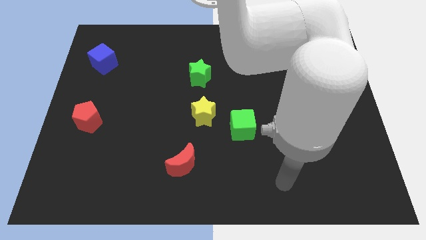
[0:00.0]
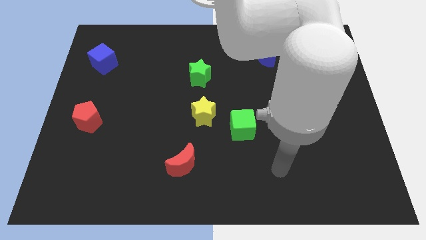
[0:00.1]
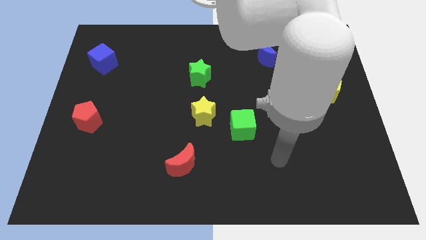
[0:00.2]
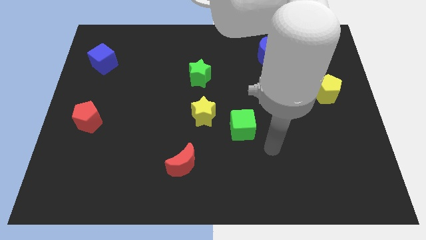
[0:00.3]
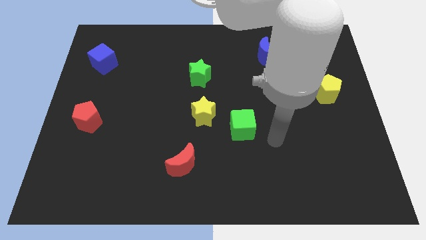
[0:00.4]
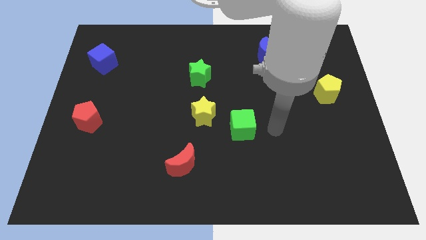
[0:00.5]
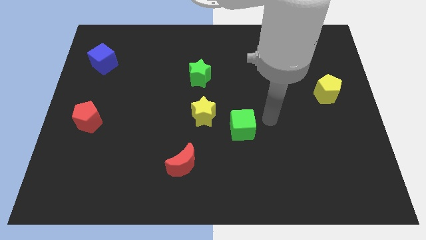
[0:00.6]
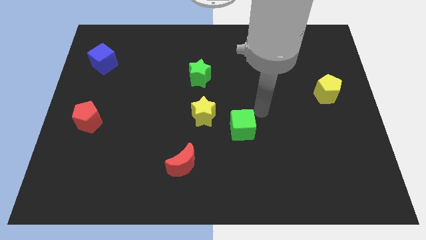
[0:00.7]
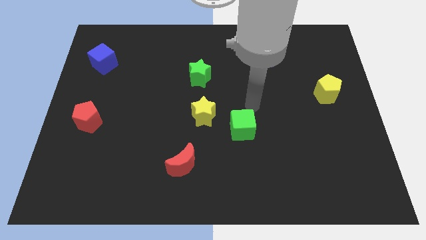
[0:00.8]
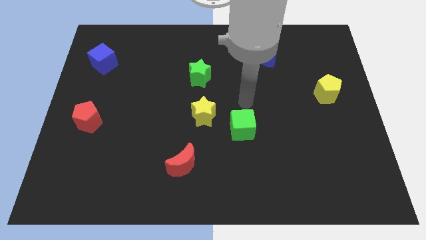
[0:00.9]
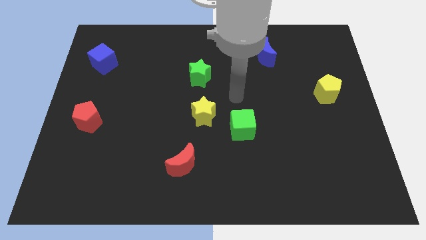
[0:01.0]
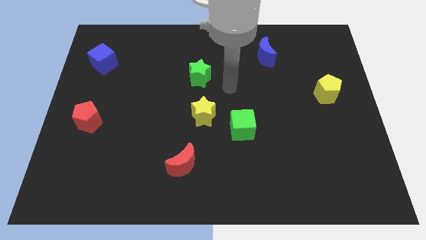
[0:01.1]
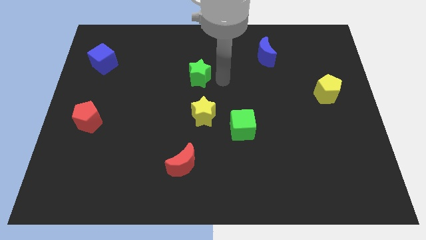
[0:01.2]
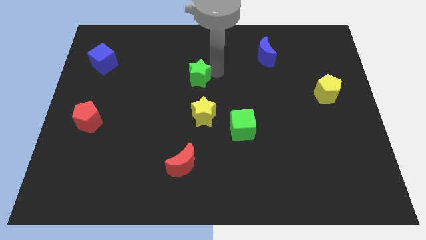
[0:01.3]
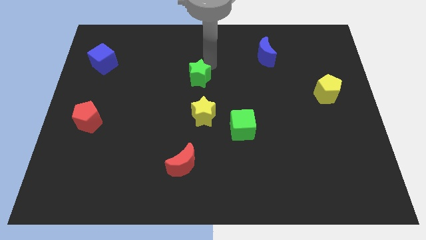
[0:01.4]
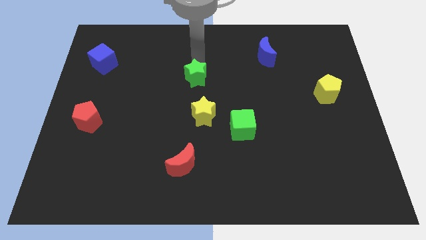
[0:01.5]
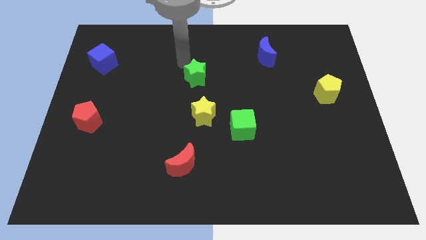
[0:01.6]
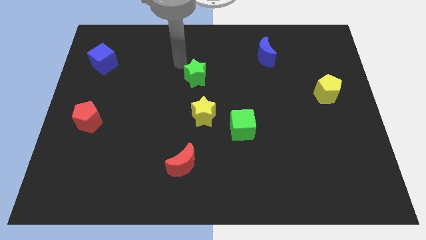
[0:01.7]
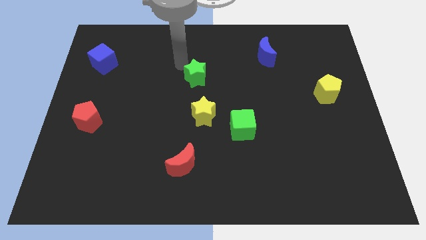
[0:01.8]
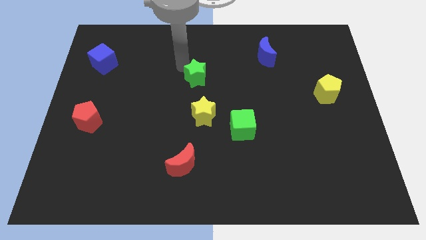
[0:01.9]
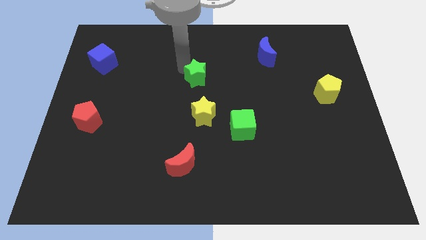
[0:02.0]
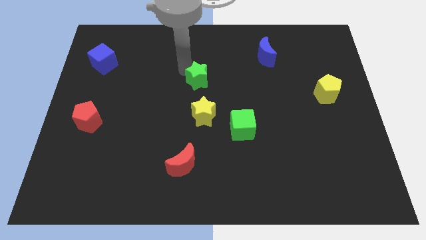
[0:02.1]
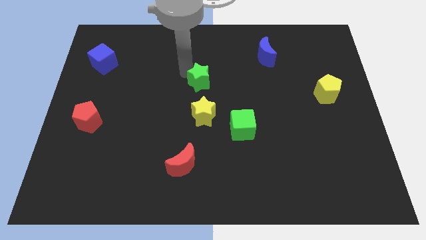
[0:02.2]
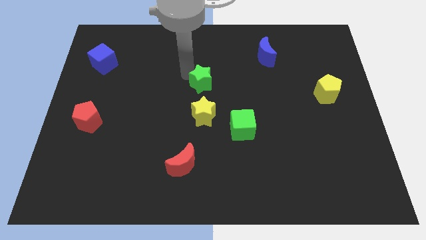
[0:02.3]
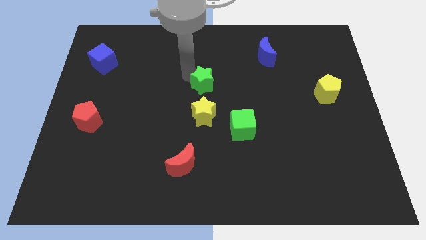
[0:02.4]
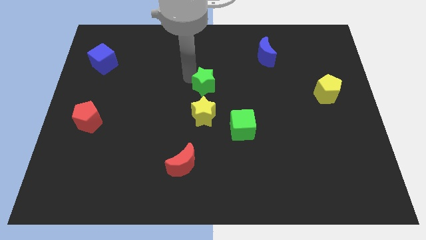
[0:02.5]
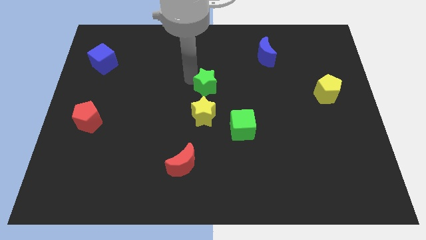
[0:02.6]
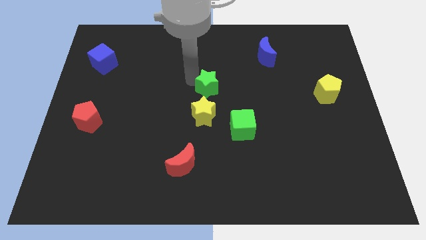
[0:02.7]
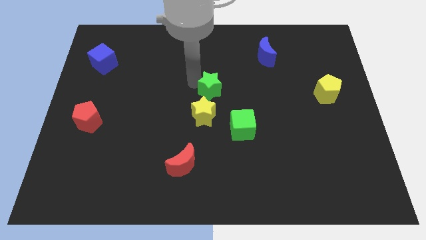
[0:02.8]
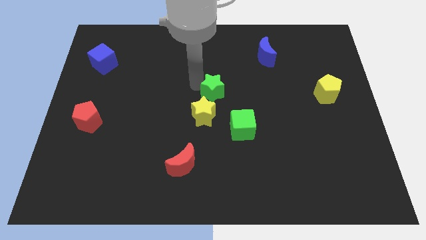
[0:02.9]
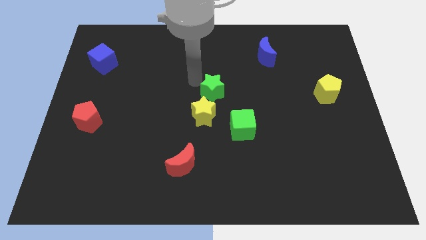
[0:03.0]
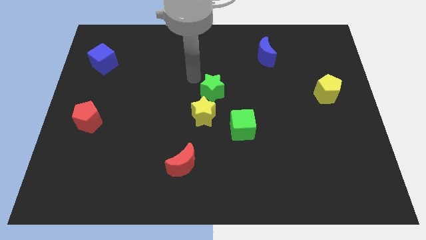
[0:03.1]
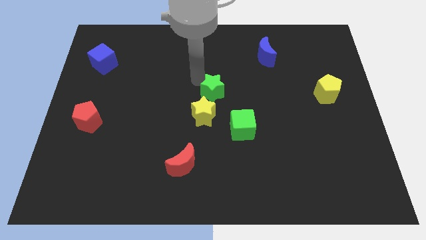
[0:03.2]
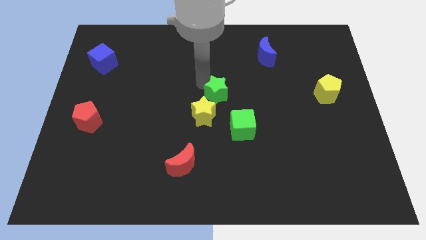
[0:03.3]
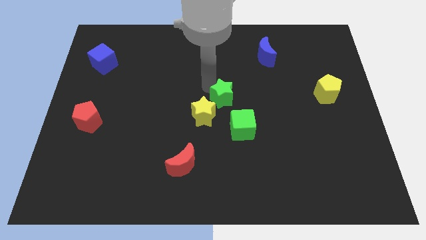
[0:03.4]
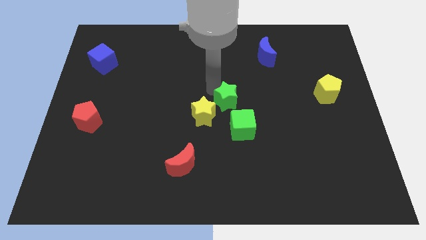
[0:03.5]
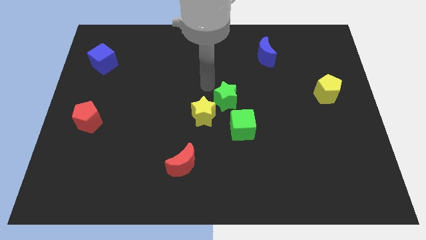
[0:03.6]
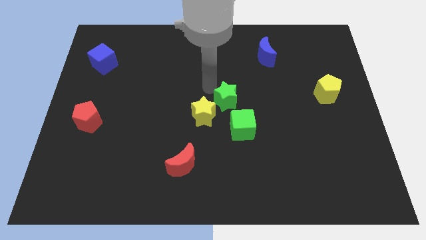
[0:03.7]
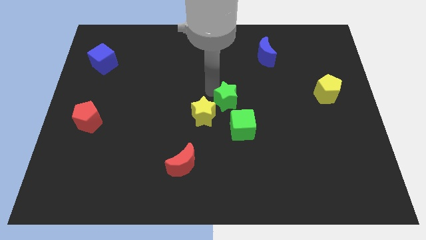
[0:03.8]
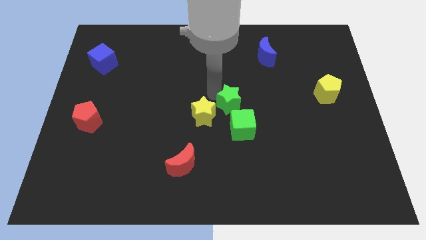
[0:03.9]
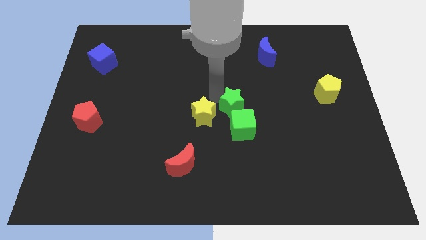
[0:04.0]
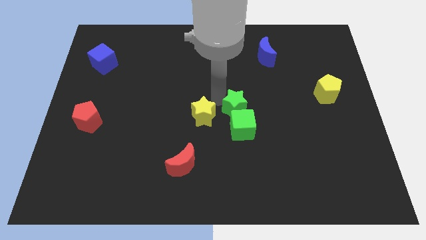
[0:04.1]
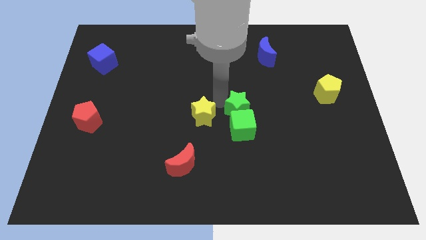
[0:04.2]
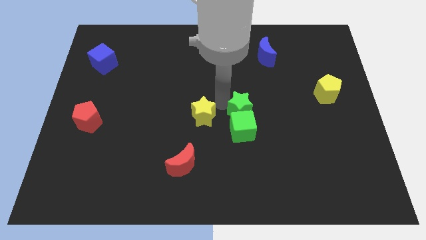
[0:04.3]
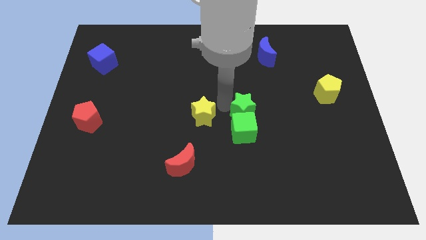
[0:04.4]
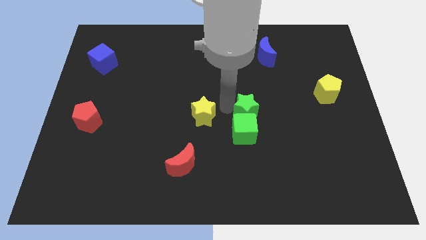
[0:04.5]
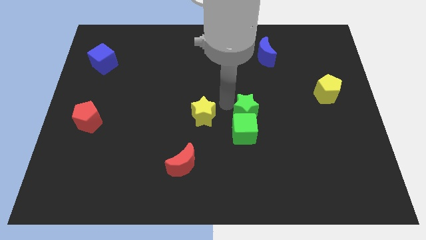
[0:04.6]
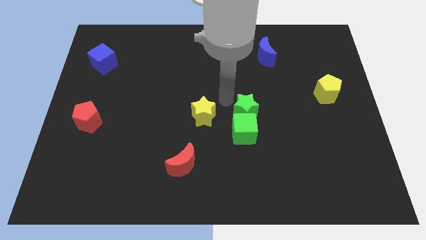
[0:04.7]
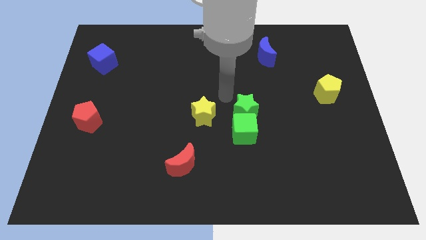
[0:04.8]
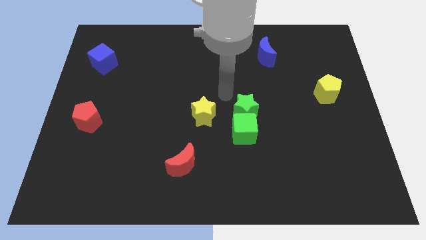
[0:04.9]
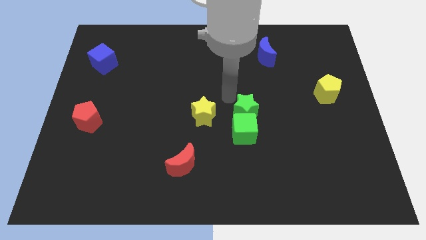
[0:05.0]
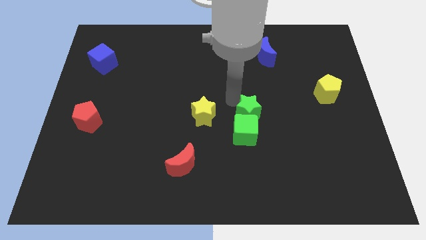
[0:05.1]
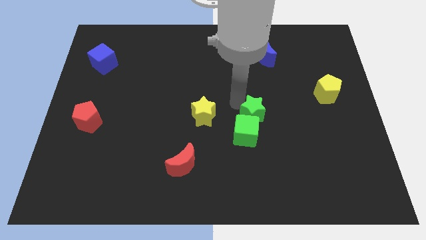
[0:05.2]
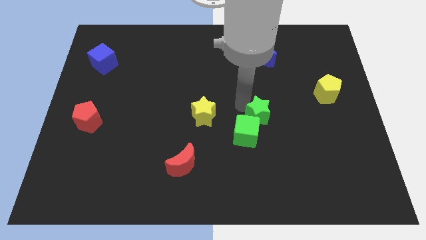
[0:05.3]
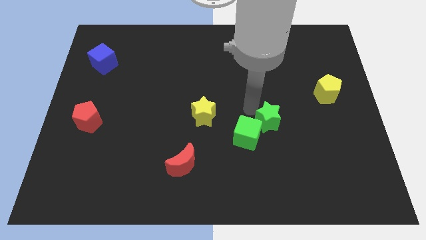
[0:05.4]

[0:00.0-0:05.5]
push the green star downwards and to the right diagonally

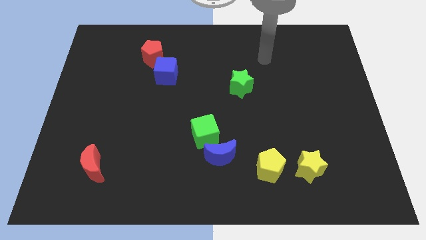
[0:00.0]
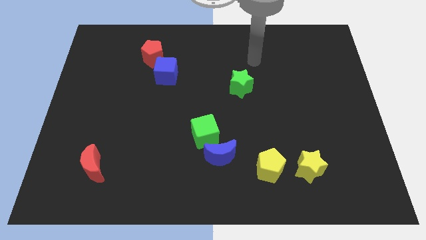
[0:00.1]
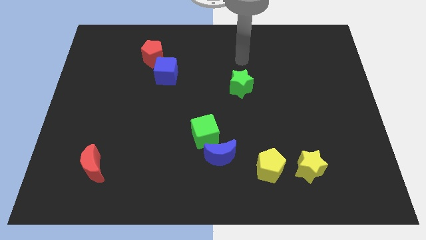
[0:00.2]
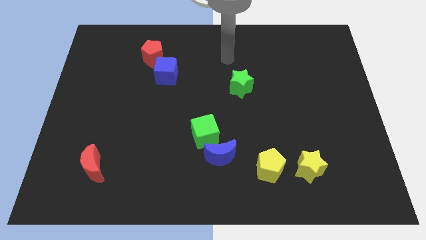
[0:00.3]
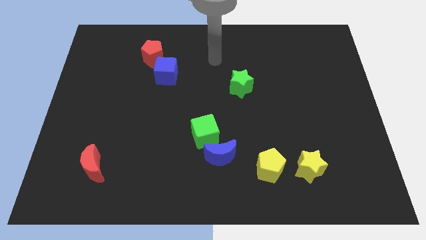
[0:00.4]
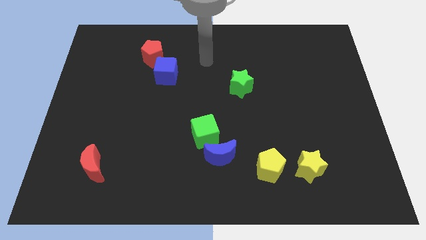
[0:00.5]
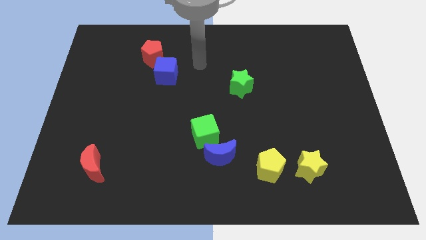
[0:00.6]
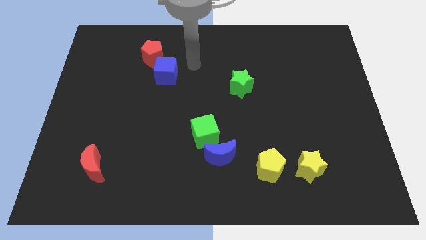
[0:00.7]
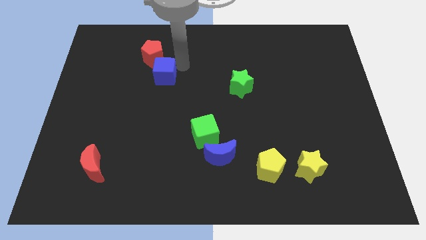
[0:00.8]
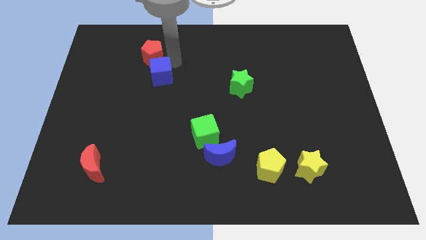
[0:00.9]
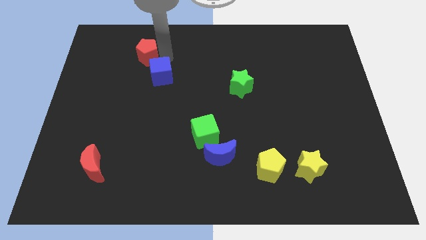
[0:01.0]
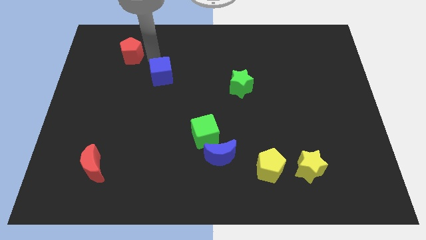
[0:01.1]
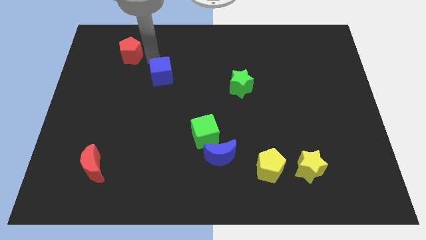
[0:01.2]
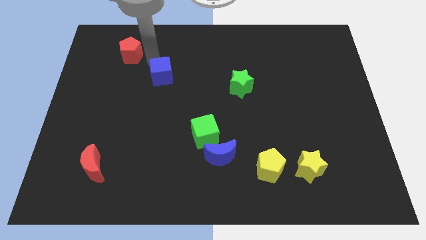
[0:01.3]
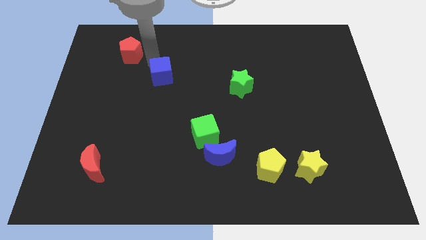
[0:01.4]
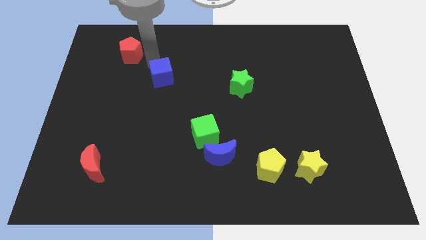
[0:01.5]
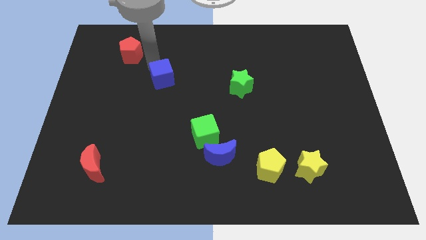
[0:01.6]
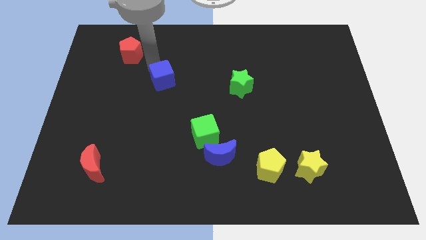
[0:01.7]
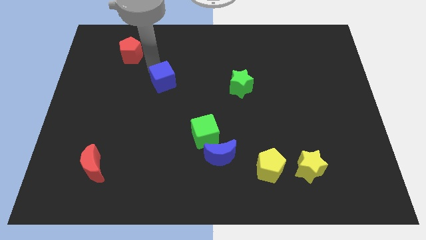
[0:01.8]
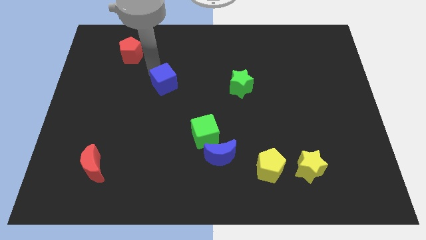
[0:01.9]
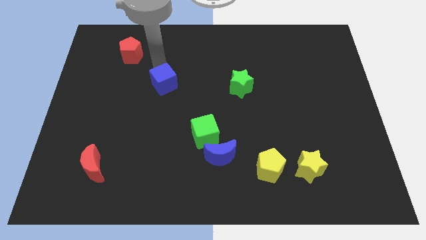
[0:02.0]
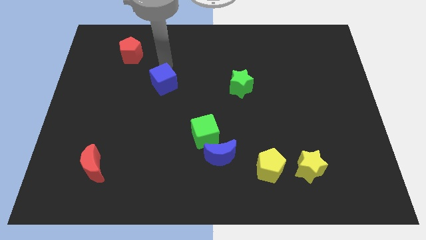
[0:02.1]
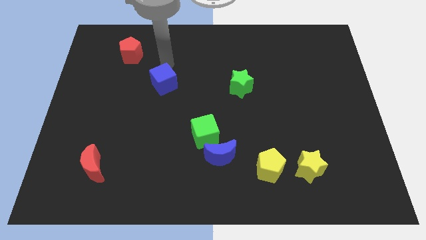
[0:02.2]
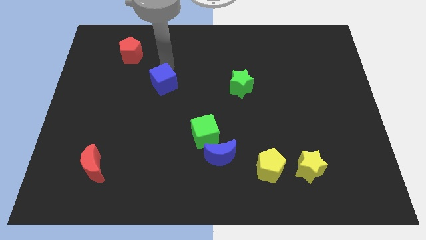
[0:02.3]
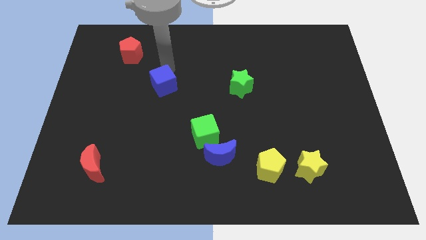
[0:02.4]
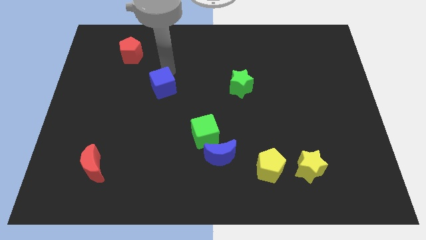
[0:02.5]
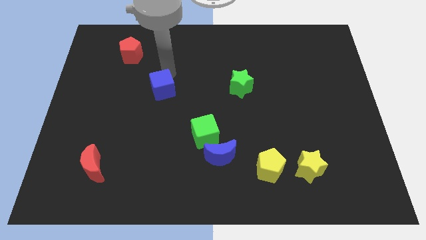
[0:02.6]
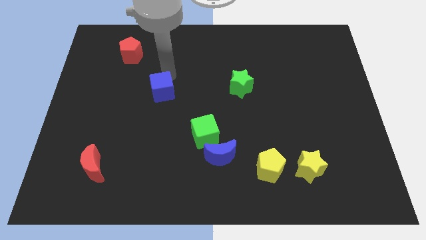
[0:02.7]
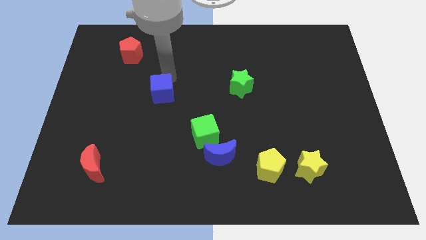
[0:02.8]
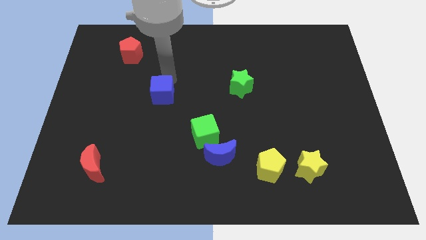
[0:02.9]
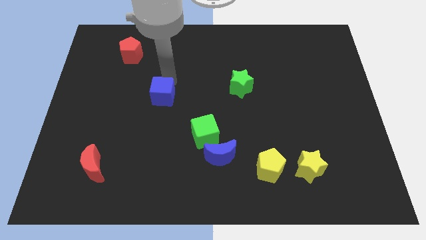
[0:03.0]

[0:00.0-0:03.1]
slide the blue cube down a little bit
